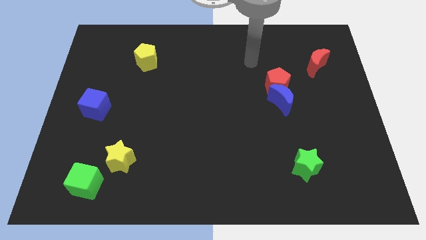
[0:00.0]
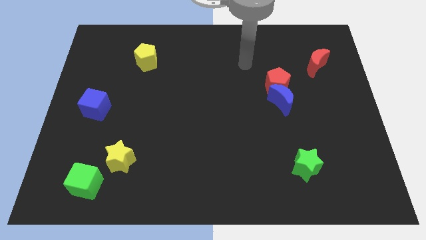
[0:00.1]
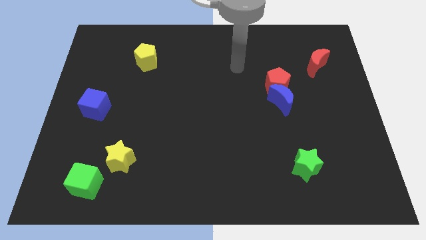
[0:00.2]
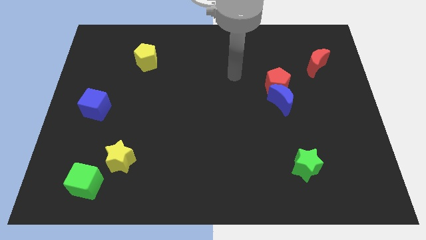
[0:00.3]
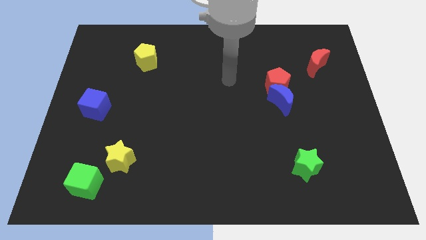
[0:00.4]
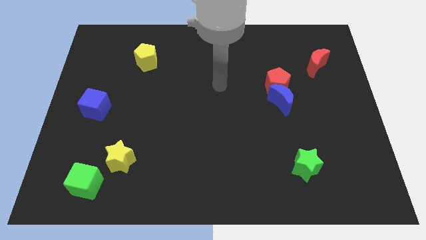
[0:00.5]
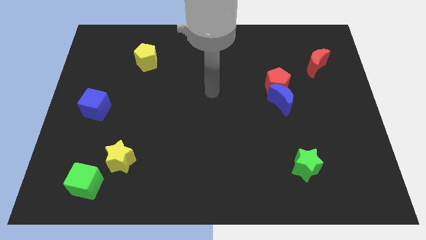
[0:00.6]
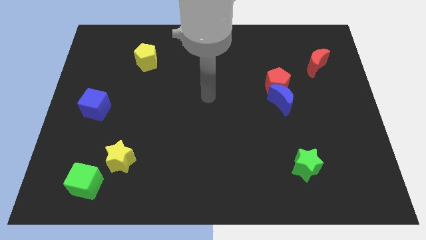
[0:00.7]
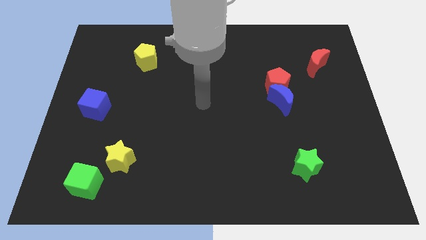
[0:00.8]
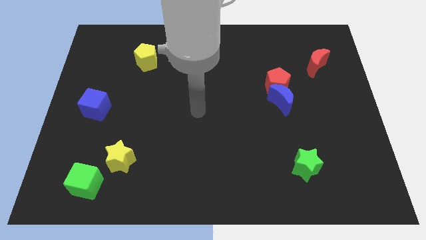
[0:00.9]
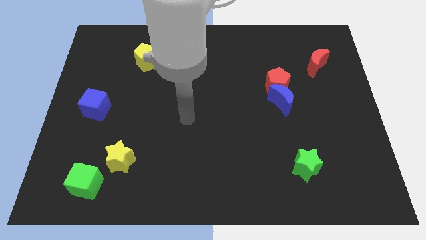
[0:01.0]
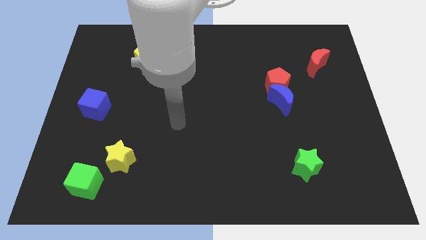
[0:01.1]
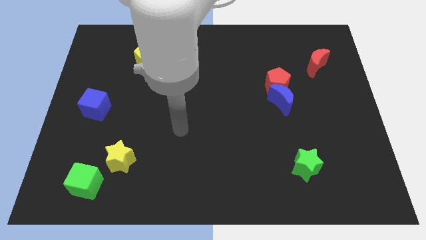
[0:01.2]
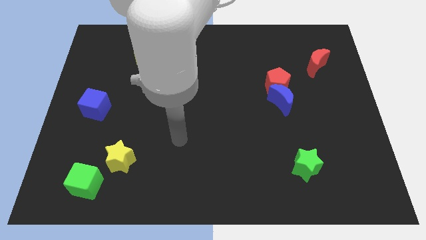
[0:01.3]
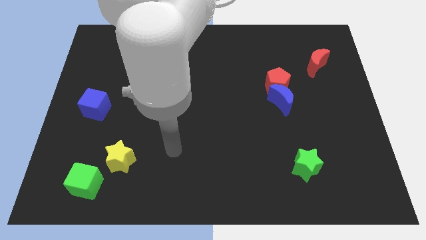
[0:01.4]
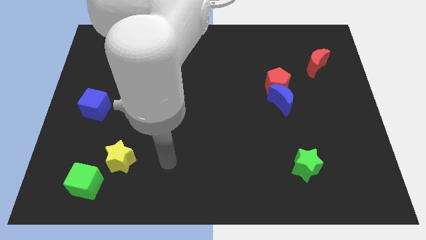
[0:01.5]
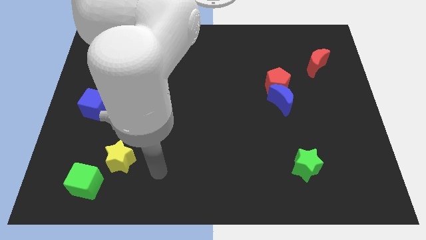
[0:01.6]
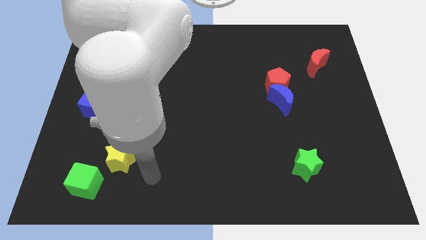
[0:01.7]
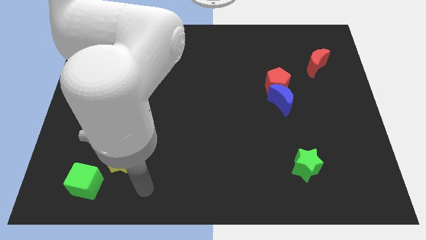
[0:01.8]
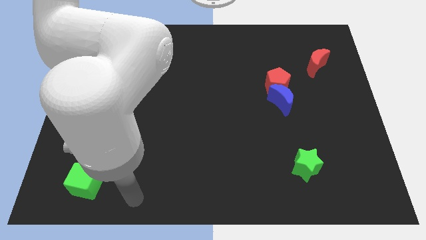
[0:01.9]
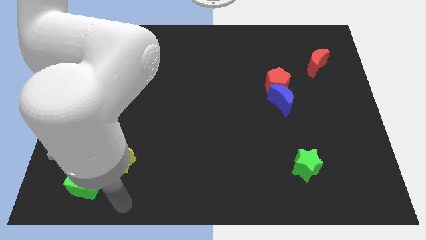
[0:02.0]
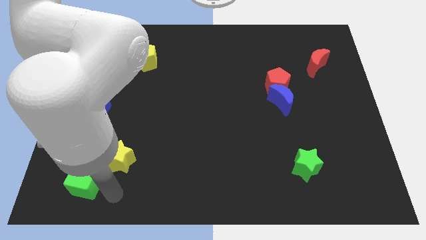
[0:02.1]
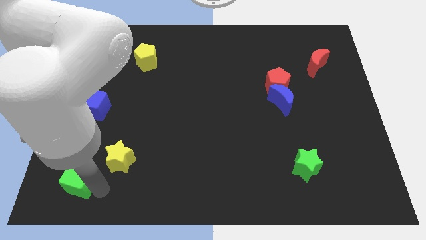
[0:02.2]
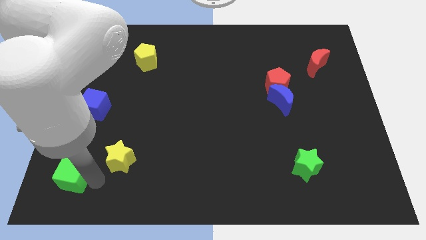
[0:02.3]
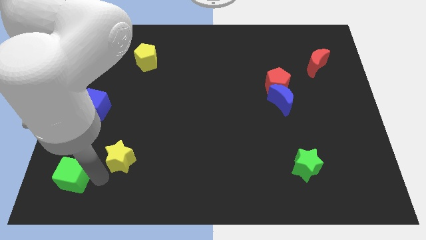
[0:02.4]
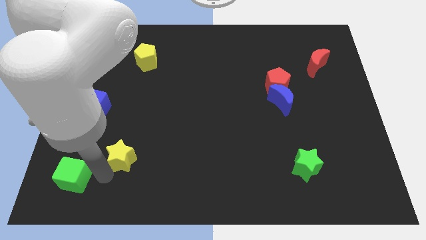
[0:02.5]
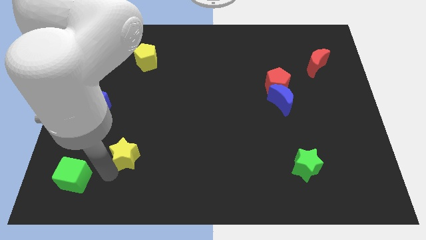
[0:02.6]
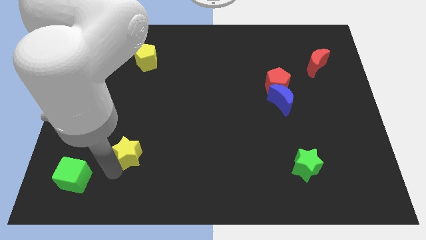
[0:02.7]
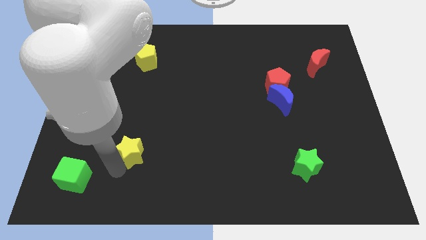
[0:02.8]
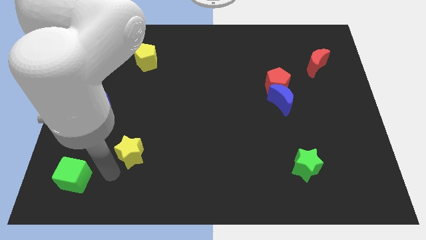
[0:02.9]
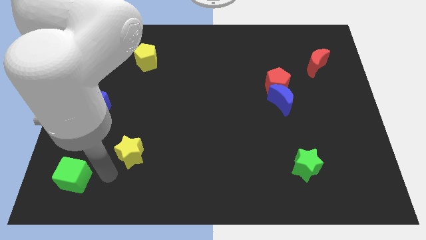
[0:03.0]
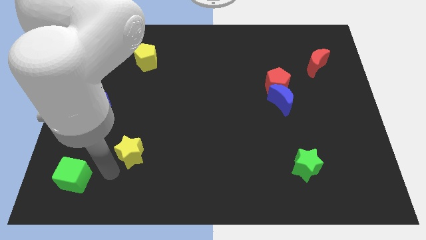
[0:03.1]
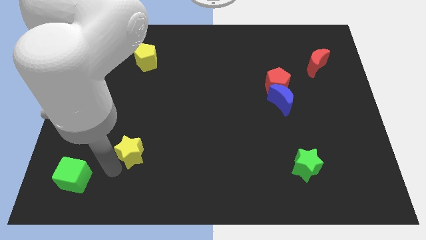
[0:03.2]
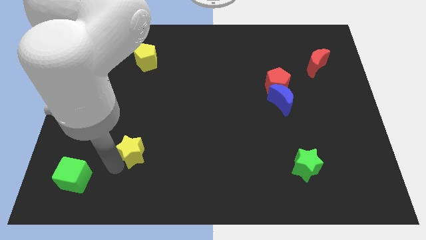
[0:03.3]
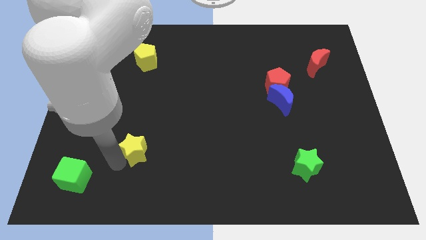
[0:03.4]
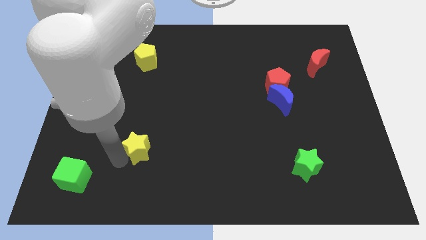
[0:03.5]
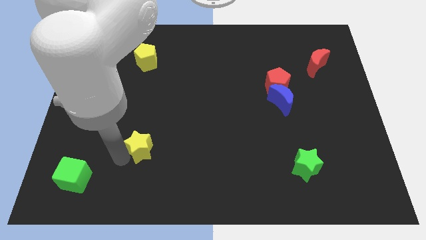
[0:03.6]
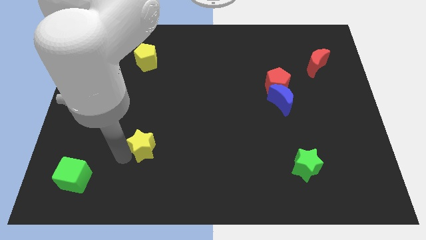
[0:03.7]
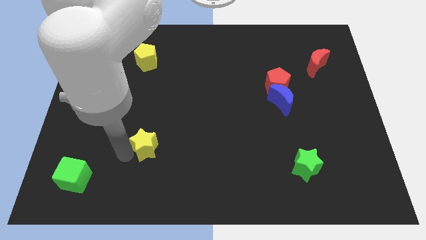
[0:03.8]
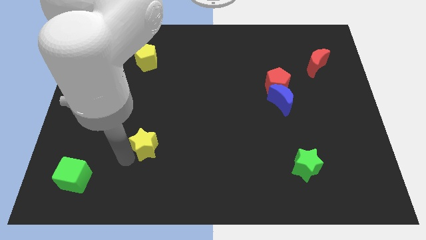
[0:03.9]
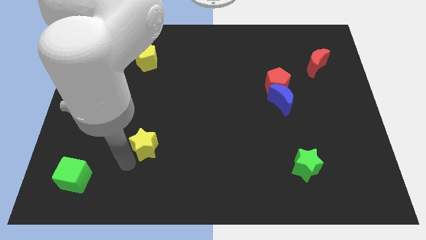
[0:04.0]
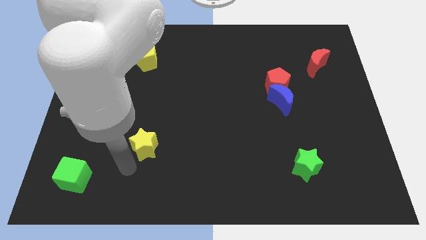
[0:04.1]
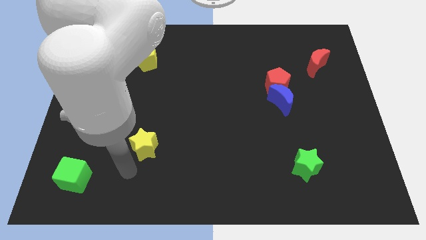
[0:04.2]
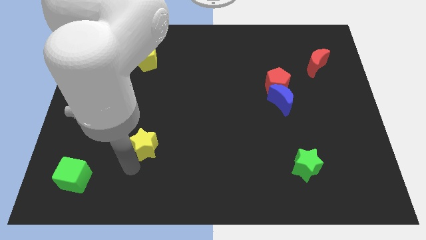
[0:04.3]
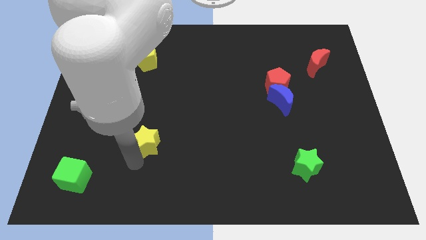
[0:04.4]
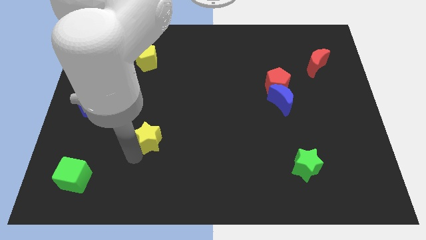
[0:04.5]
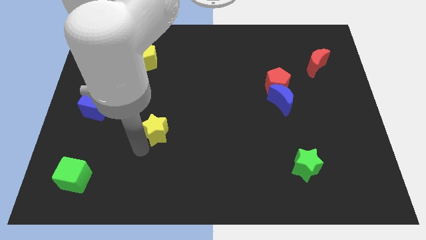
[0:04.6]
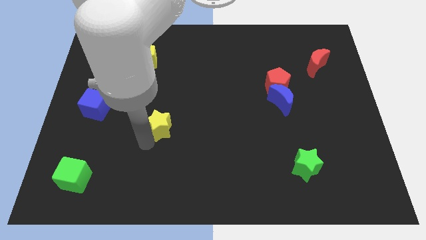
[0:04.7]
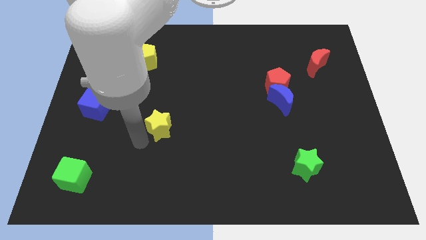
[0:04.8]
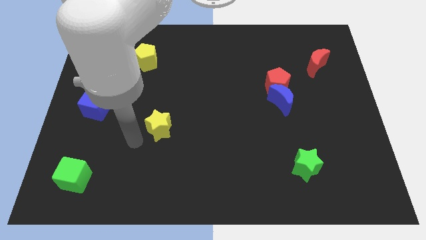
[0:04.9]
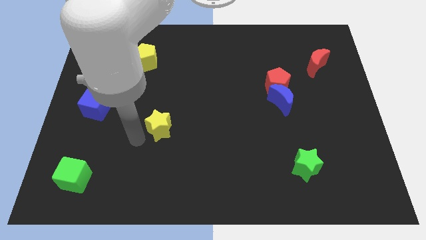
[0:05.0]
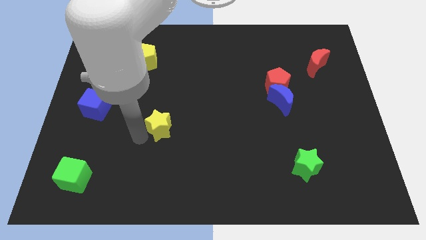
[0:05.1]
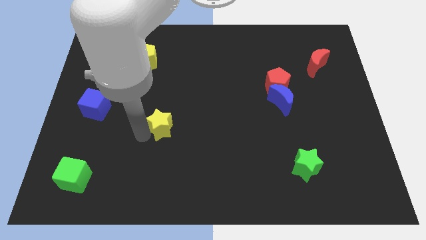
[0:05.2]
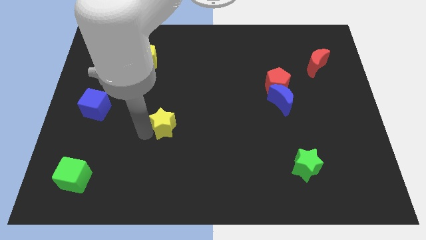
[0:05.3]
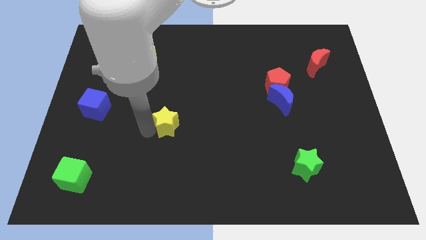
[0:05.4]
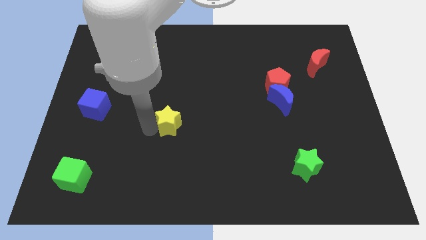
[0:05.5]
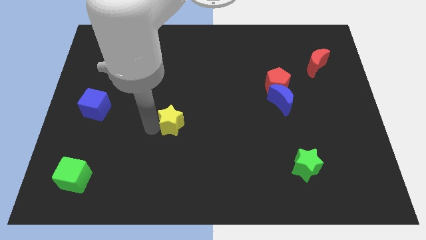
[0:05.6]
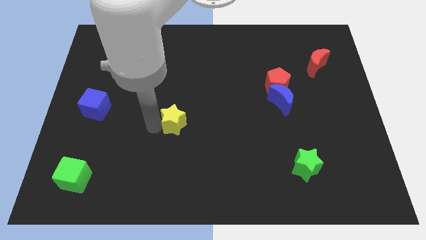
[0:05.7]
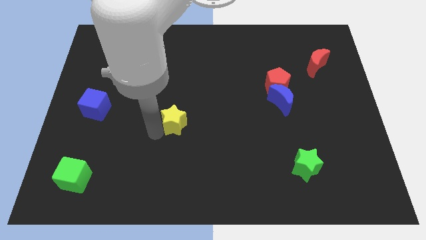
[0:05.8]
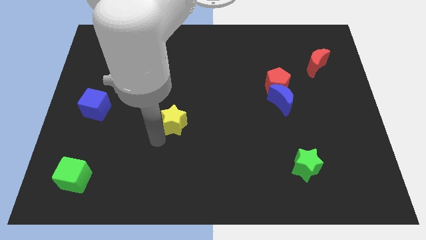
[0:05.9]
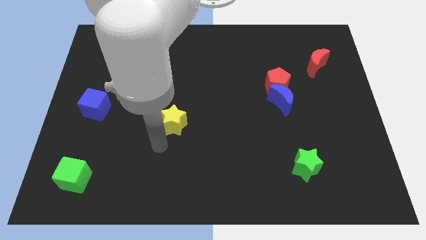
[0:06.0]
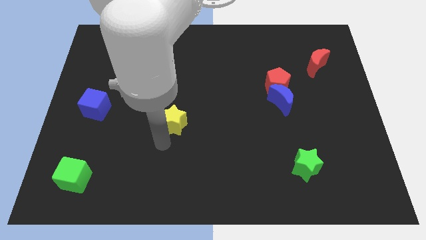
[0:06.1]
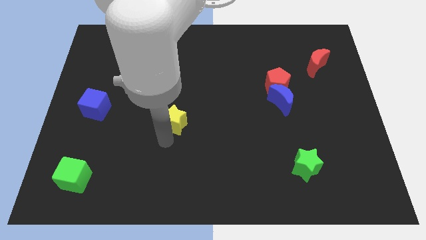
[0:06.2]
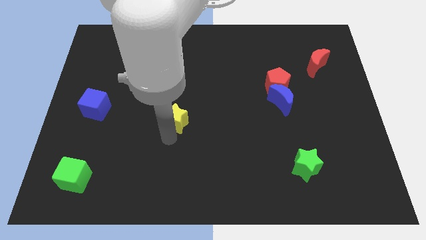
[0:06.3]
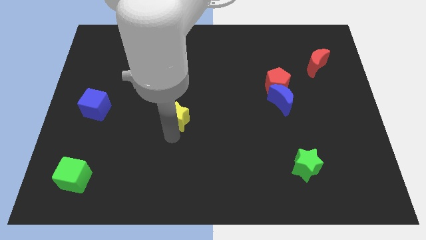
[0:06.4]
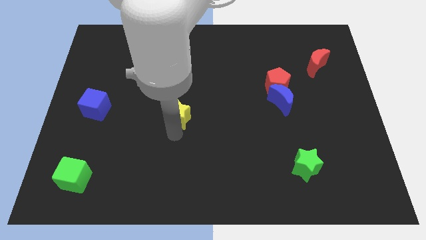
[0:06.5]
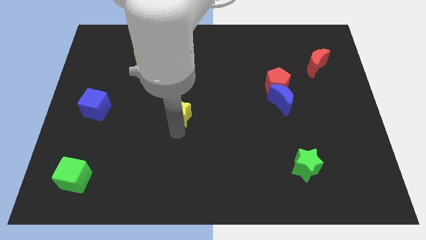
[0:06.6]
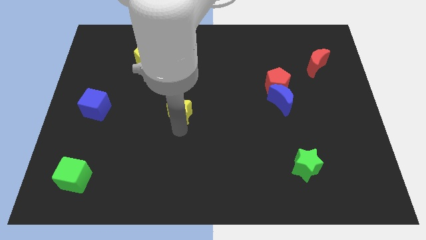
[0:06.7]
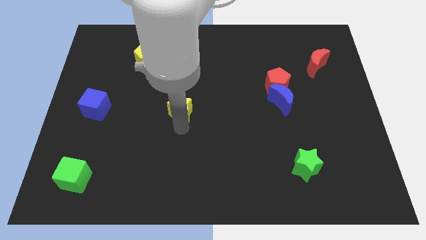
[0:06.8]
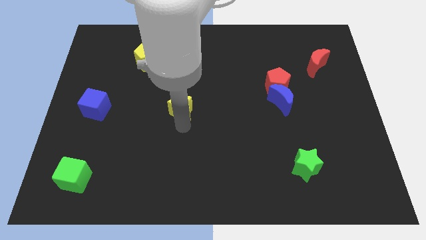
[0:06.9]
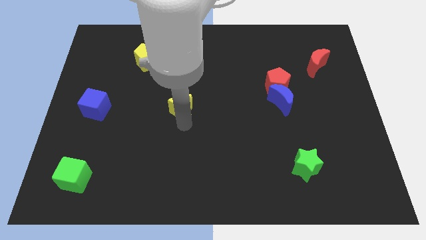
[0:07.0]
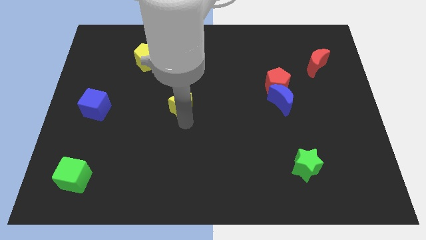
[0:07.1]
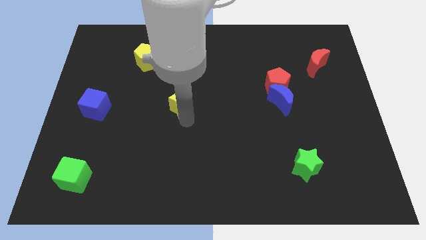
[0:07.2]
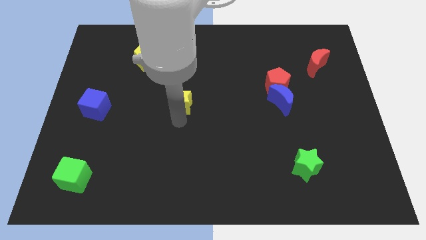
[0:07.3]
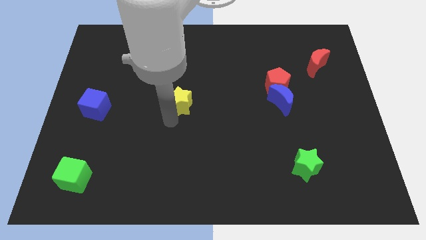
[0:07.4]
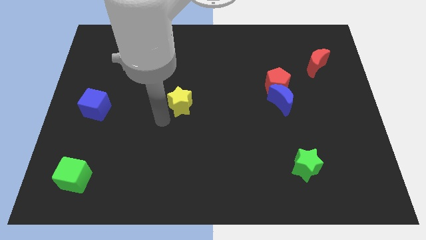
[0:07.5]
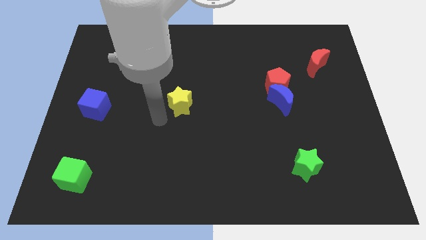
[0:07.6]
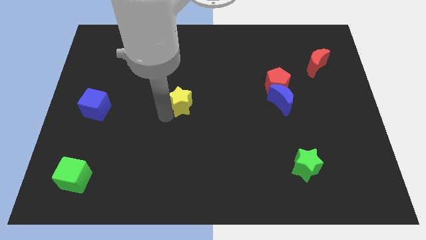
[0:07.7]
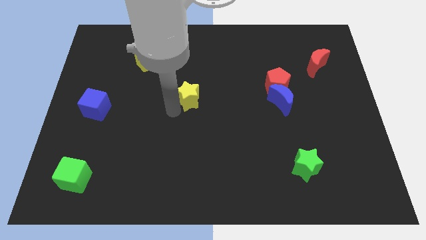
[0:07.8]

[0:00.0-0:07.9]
move the yellow star up and to the right

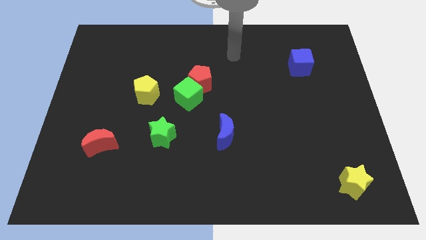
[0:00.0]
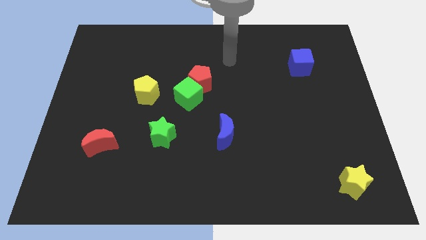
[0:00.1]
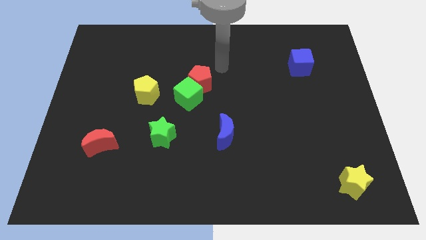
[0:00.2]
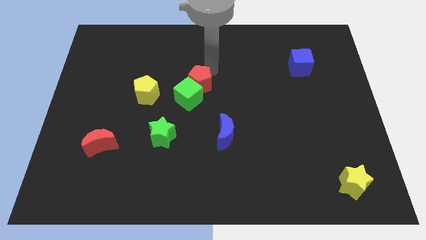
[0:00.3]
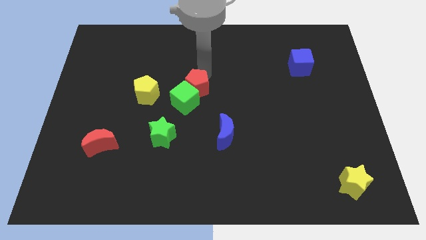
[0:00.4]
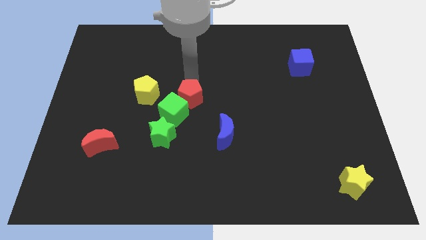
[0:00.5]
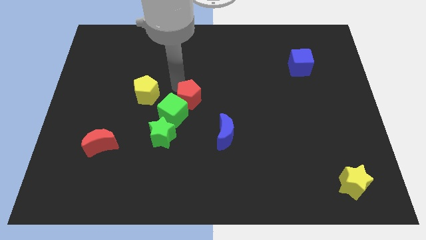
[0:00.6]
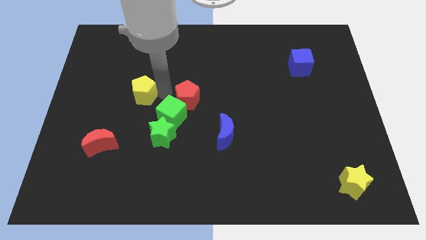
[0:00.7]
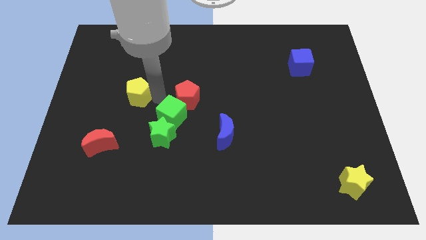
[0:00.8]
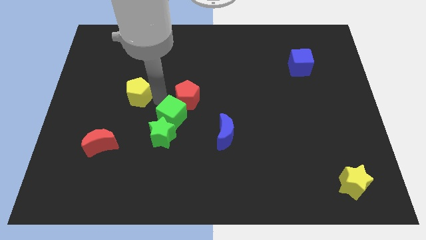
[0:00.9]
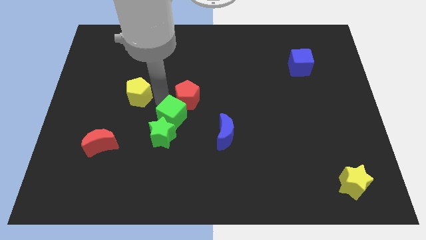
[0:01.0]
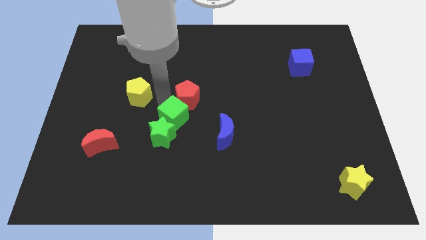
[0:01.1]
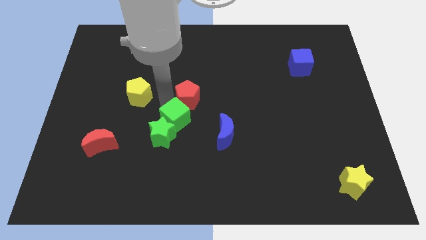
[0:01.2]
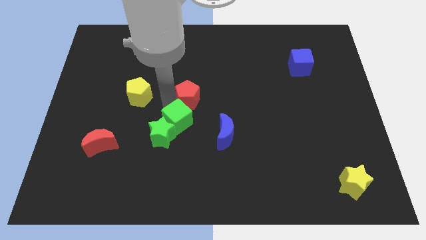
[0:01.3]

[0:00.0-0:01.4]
slightly slide the green cube down
